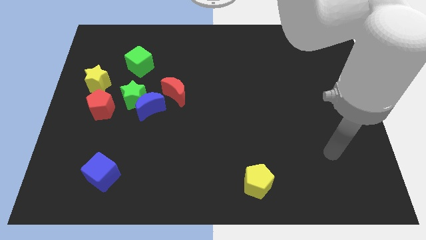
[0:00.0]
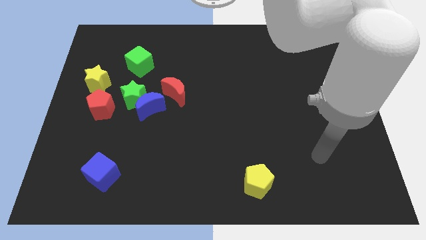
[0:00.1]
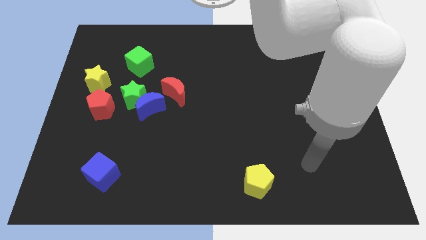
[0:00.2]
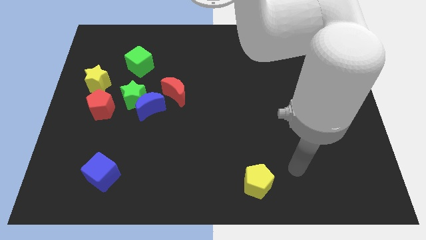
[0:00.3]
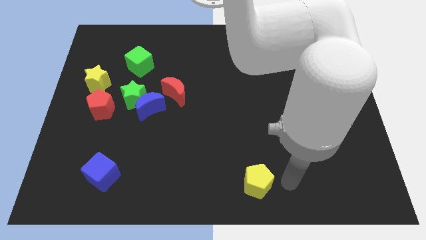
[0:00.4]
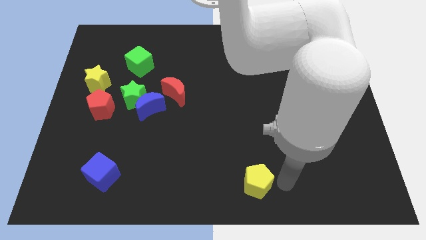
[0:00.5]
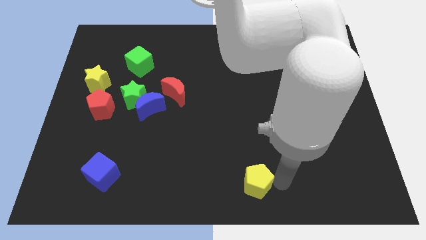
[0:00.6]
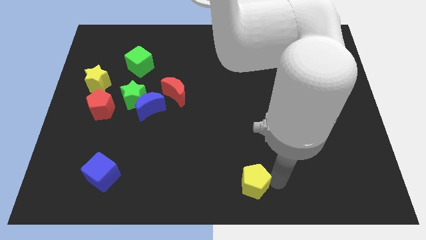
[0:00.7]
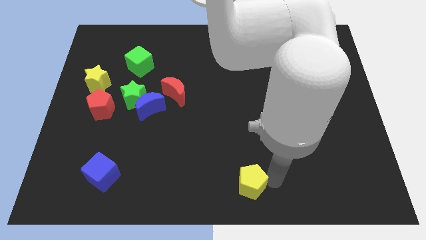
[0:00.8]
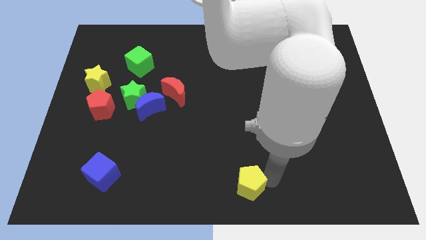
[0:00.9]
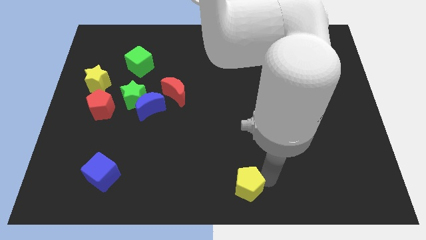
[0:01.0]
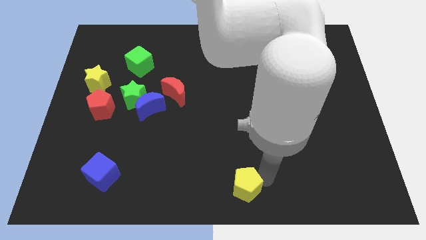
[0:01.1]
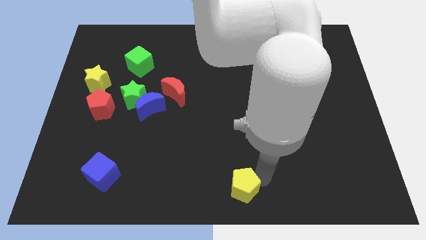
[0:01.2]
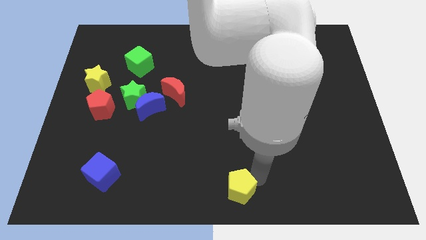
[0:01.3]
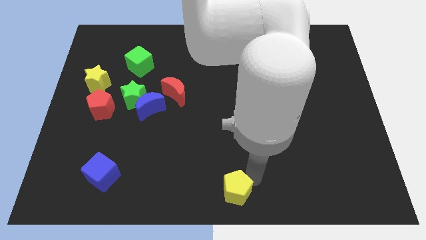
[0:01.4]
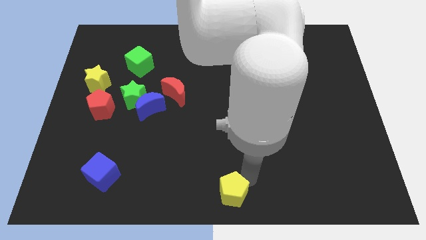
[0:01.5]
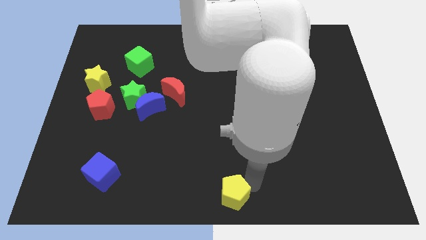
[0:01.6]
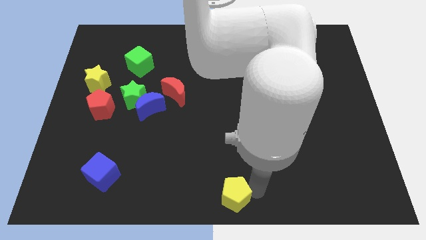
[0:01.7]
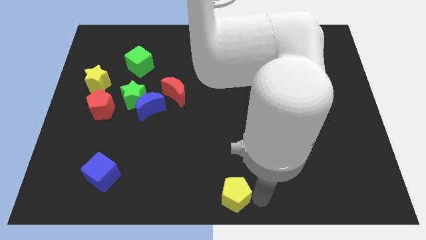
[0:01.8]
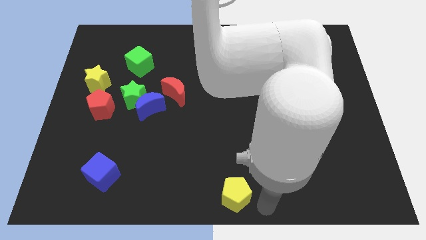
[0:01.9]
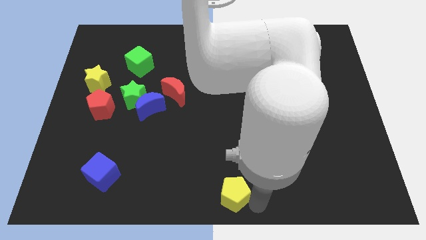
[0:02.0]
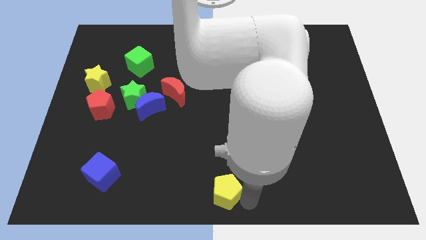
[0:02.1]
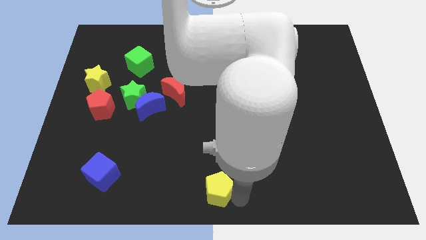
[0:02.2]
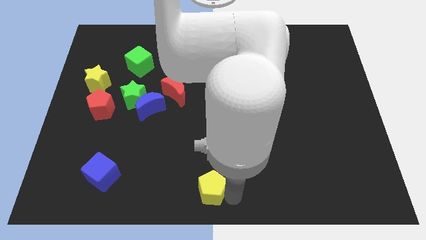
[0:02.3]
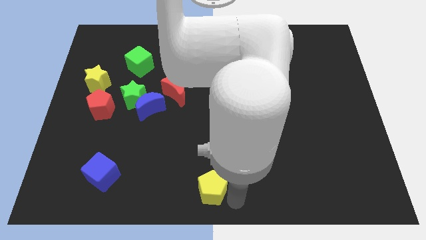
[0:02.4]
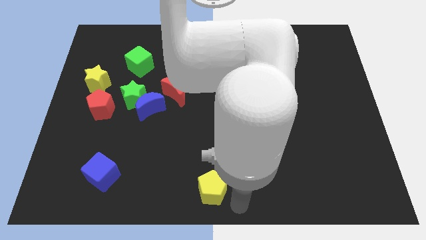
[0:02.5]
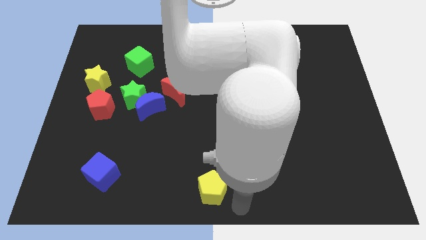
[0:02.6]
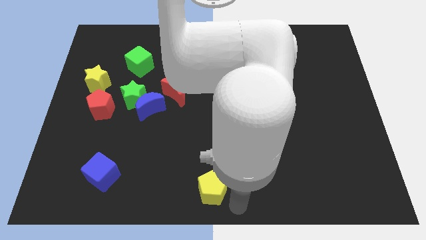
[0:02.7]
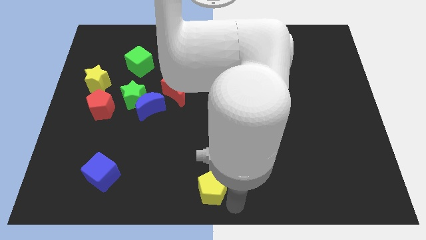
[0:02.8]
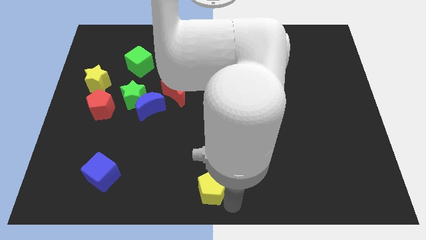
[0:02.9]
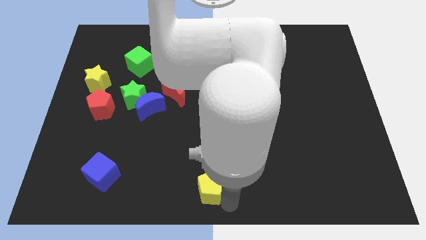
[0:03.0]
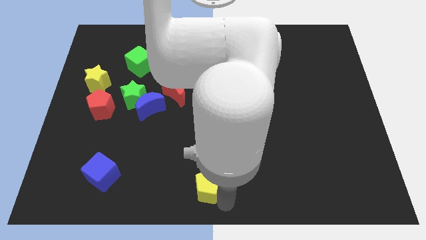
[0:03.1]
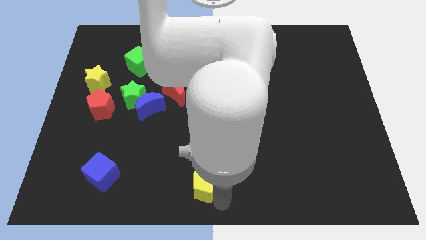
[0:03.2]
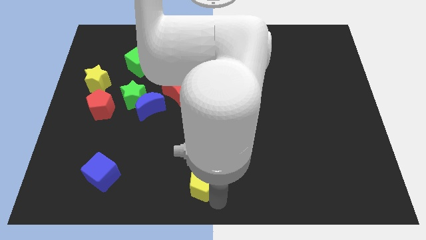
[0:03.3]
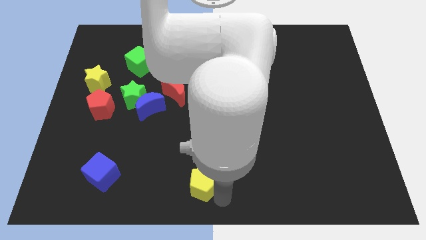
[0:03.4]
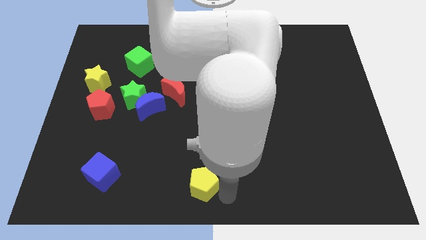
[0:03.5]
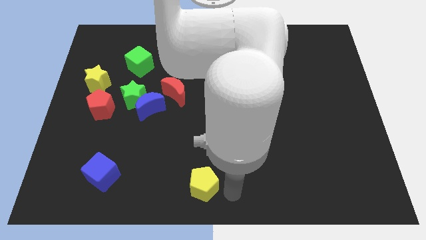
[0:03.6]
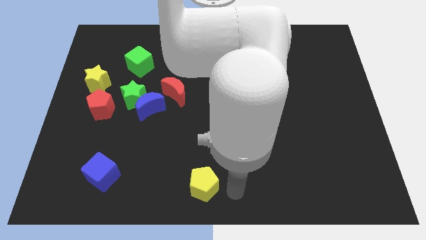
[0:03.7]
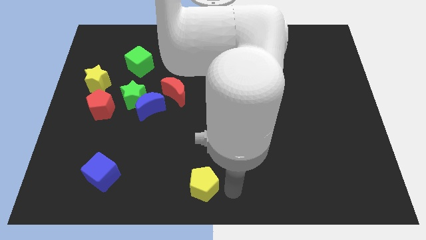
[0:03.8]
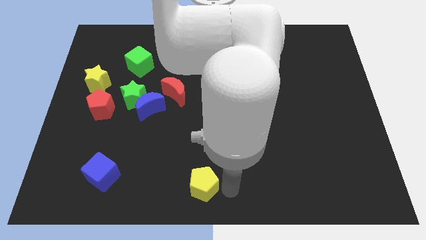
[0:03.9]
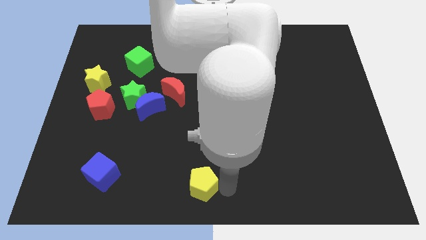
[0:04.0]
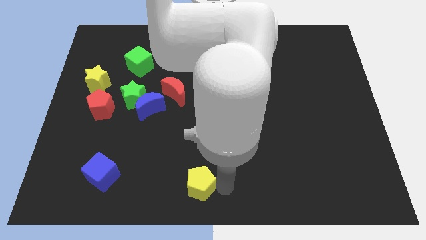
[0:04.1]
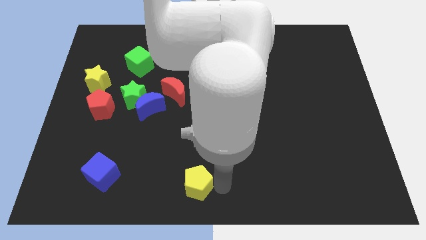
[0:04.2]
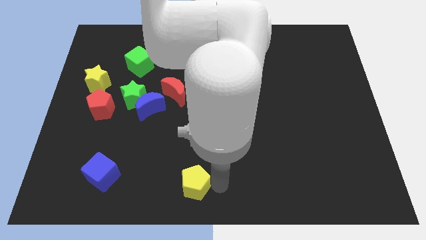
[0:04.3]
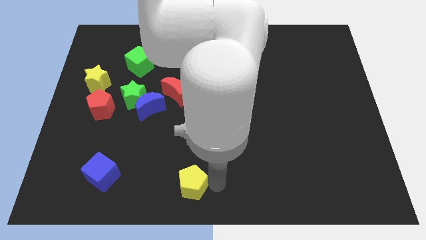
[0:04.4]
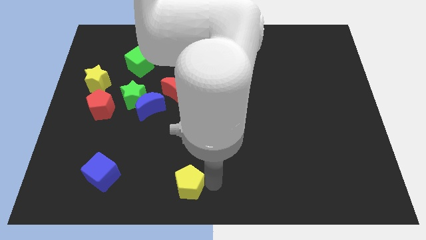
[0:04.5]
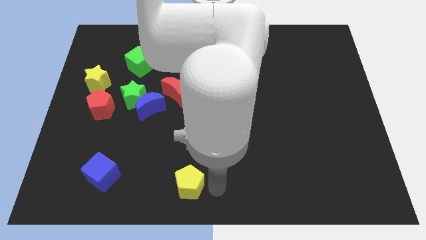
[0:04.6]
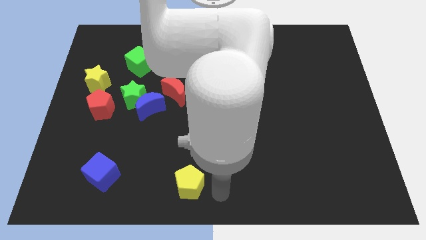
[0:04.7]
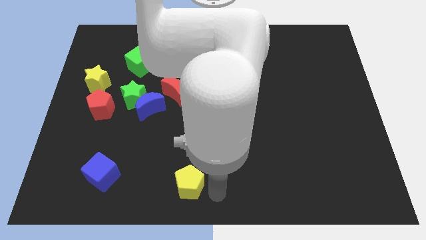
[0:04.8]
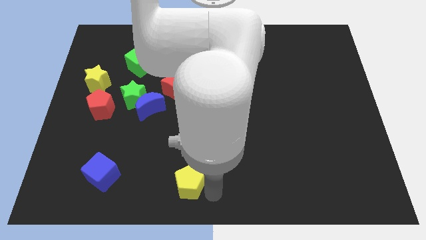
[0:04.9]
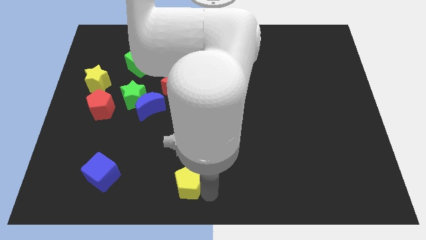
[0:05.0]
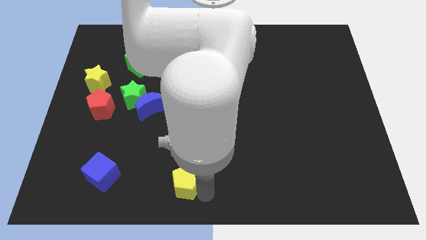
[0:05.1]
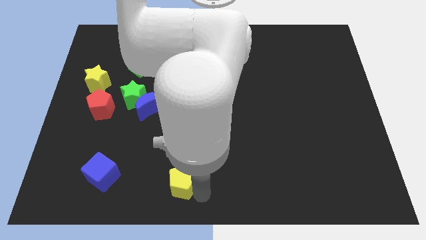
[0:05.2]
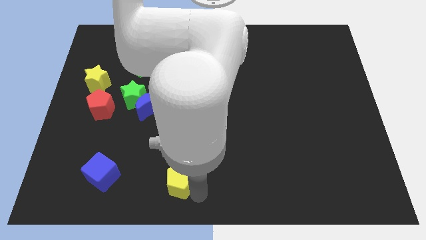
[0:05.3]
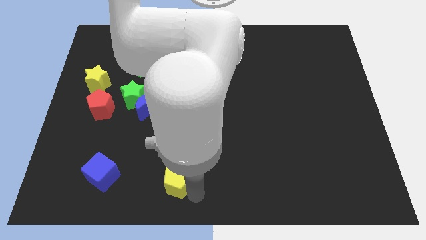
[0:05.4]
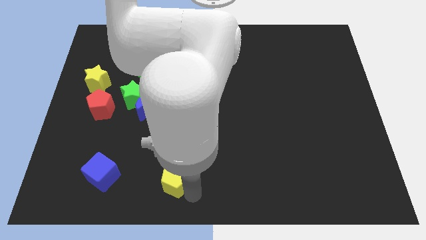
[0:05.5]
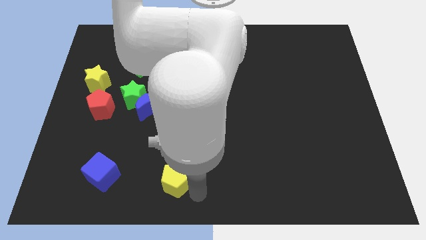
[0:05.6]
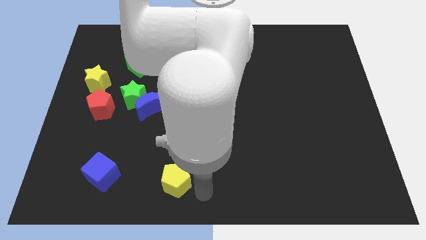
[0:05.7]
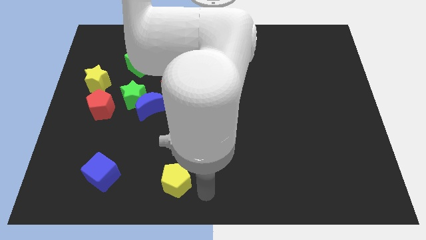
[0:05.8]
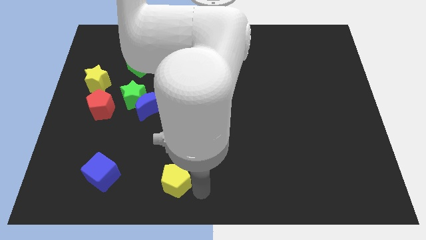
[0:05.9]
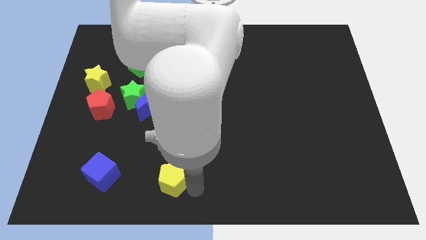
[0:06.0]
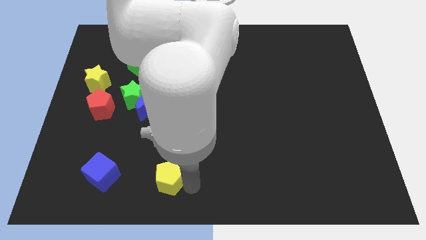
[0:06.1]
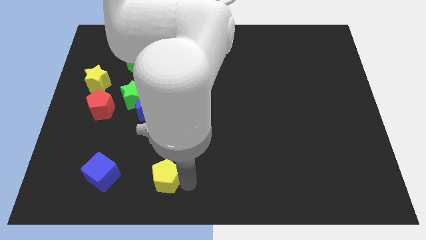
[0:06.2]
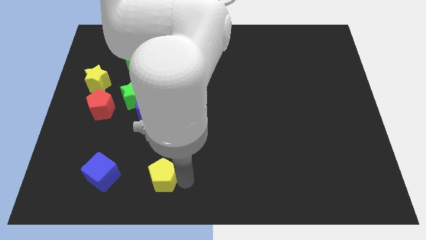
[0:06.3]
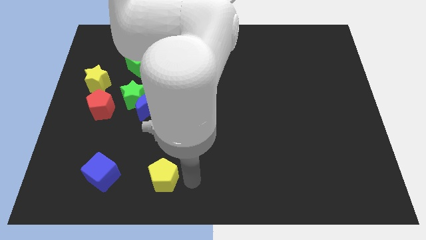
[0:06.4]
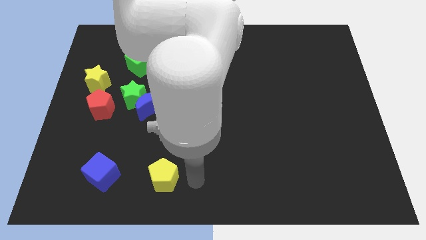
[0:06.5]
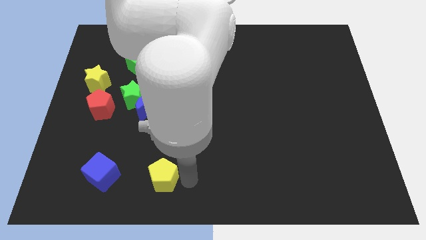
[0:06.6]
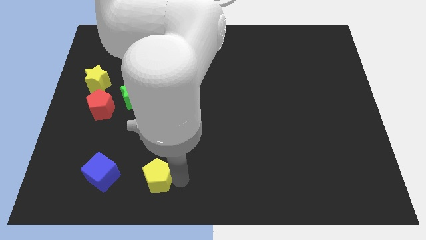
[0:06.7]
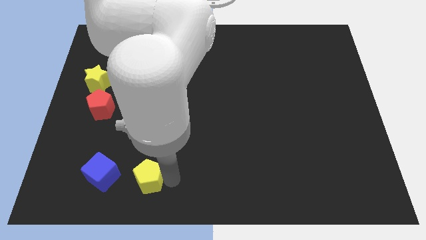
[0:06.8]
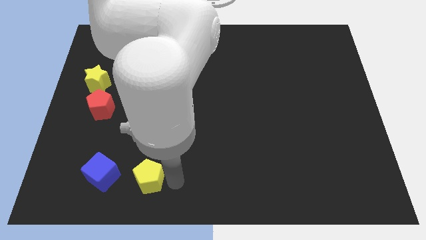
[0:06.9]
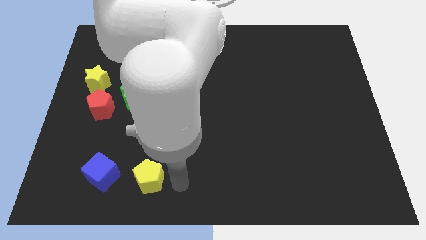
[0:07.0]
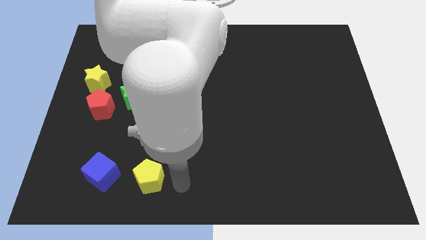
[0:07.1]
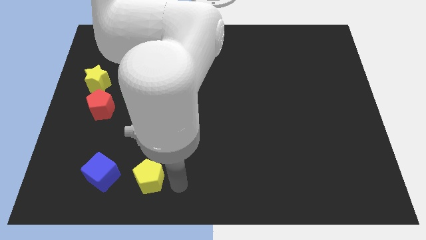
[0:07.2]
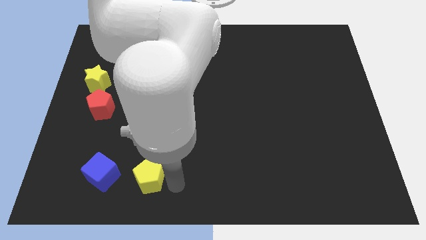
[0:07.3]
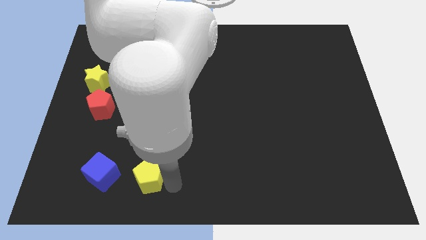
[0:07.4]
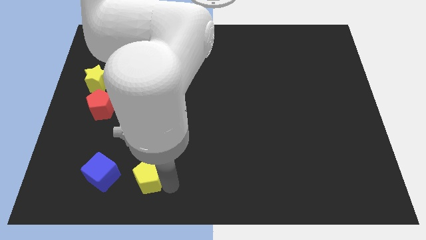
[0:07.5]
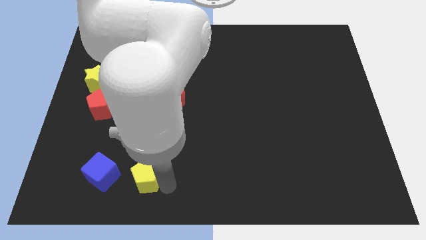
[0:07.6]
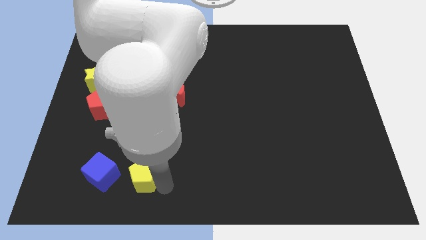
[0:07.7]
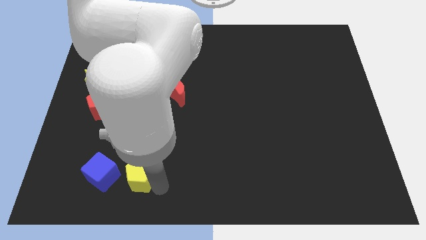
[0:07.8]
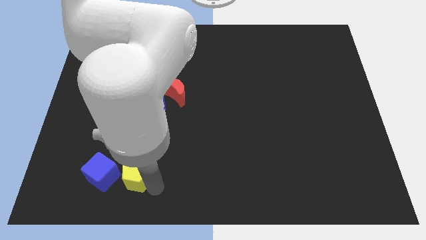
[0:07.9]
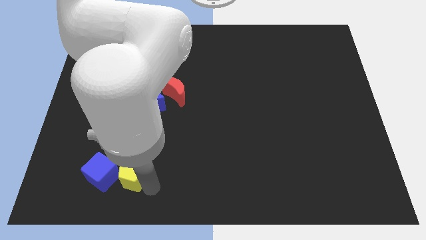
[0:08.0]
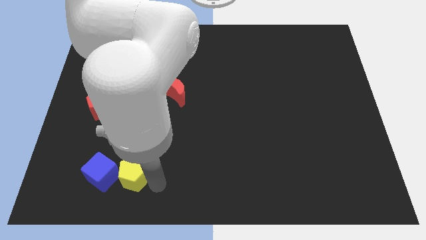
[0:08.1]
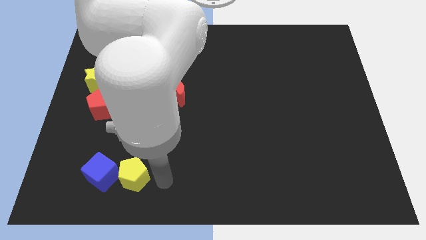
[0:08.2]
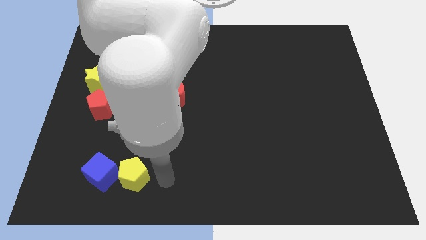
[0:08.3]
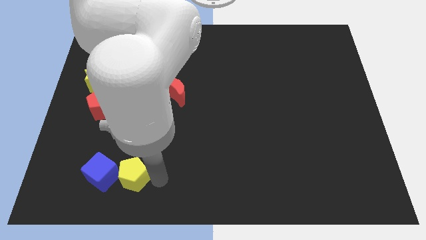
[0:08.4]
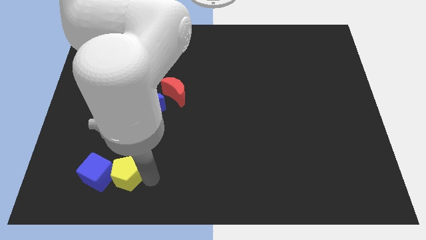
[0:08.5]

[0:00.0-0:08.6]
push the yellow pentagon to the blue cube
